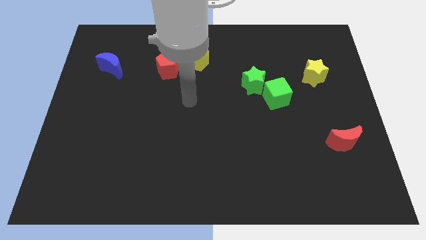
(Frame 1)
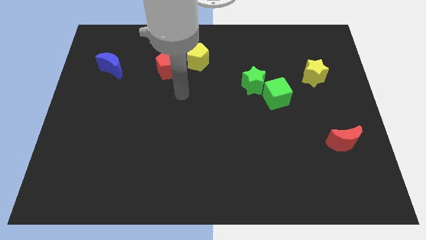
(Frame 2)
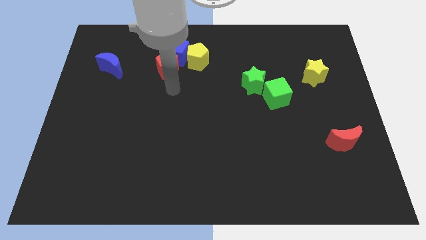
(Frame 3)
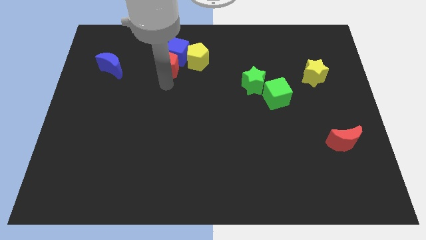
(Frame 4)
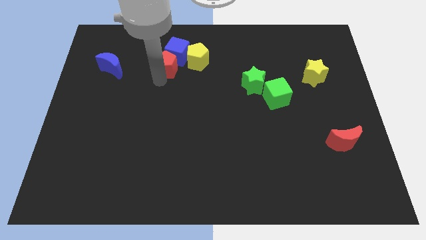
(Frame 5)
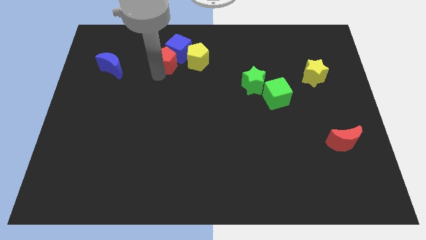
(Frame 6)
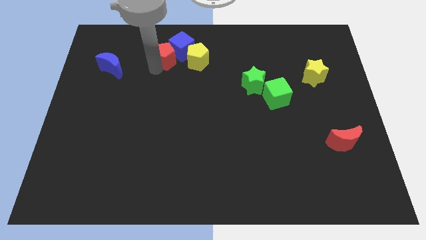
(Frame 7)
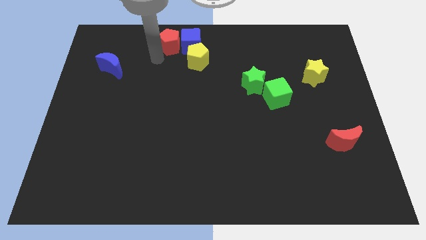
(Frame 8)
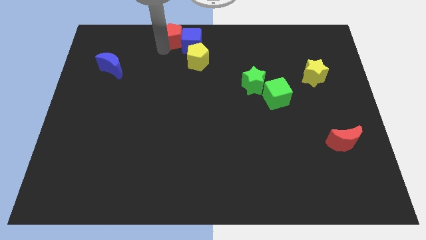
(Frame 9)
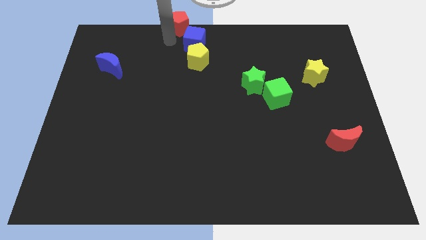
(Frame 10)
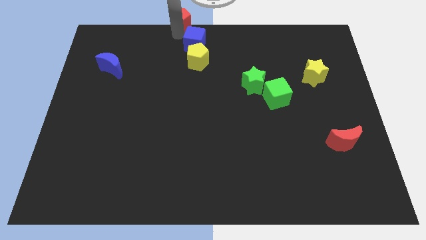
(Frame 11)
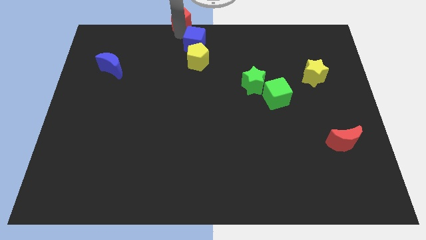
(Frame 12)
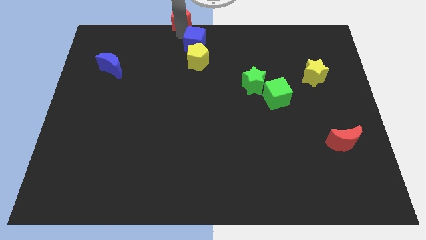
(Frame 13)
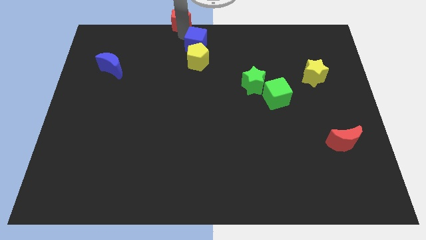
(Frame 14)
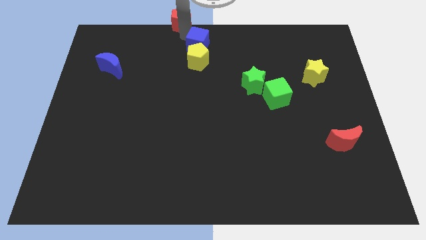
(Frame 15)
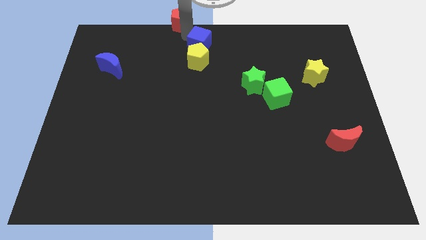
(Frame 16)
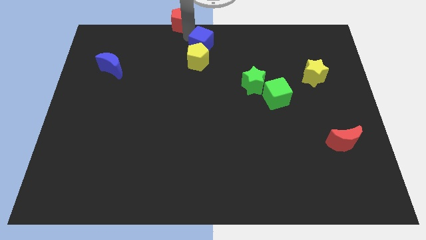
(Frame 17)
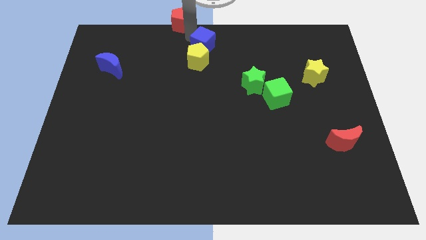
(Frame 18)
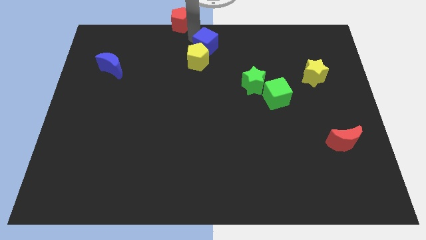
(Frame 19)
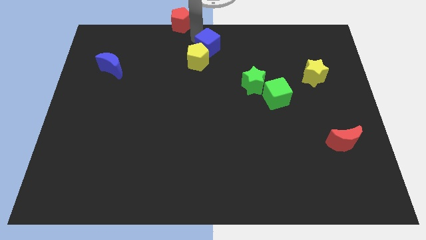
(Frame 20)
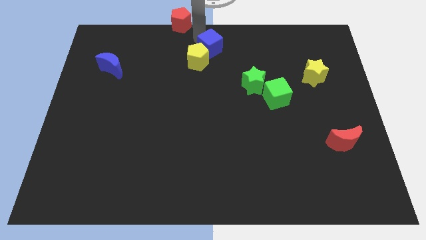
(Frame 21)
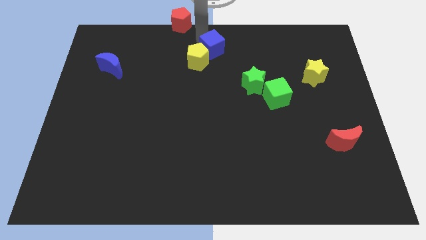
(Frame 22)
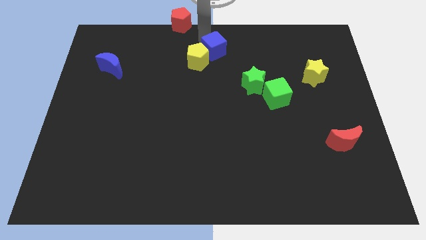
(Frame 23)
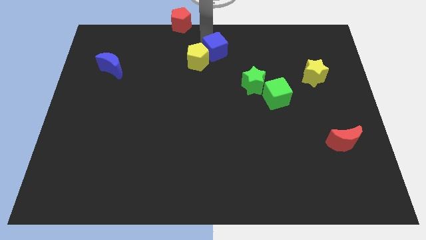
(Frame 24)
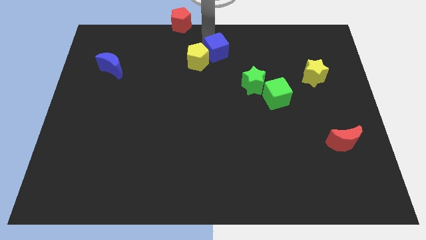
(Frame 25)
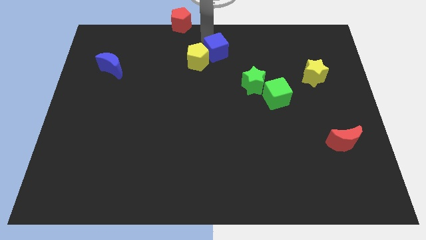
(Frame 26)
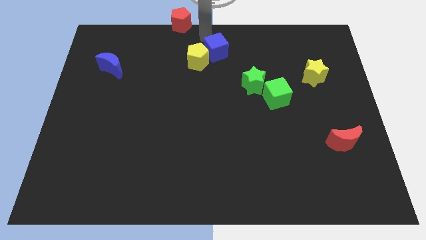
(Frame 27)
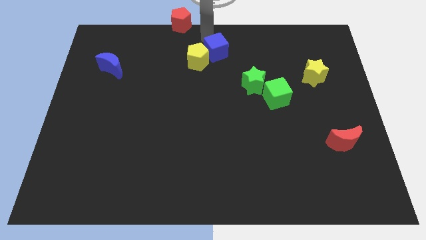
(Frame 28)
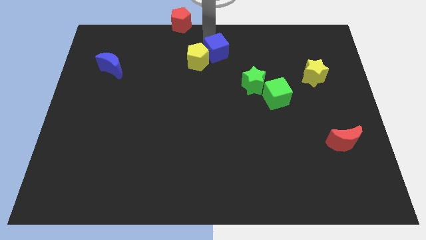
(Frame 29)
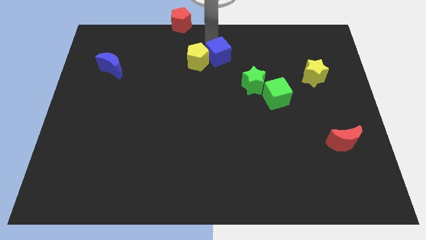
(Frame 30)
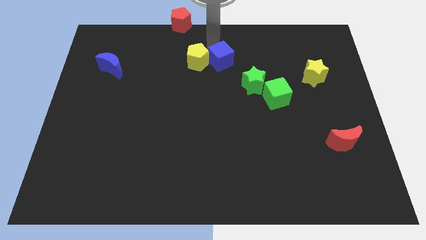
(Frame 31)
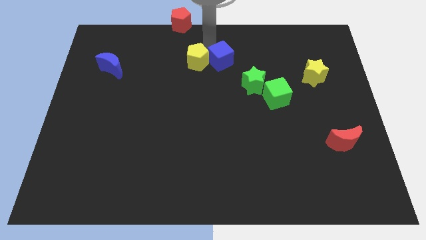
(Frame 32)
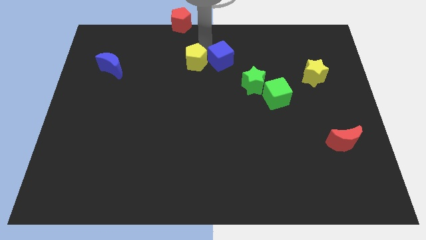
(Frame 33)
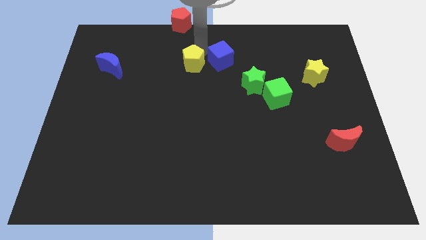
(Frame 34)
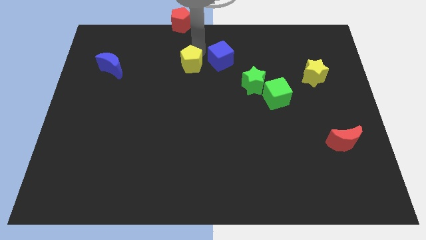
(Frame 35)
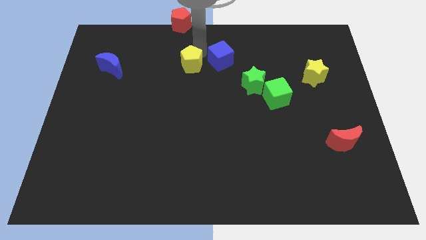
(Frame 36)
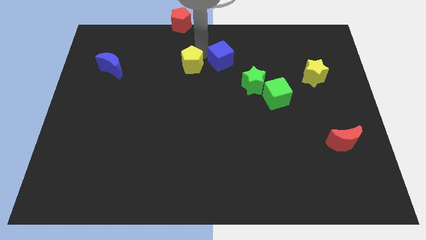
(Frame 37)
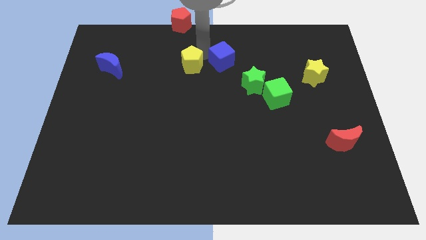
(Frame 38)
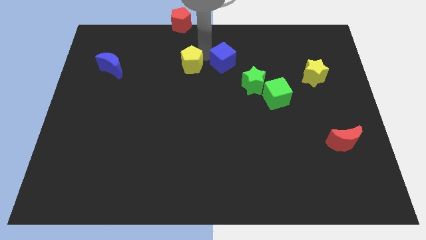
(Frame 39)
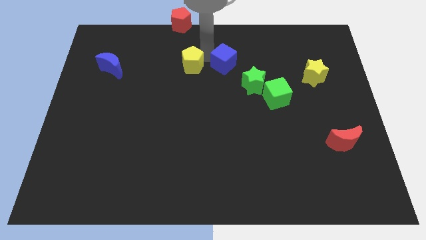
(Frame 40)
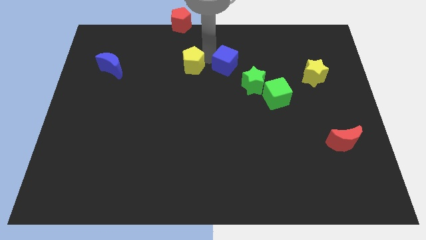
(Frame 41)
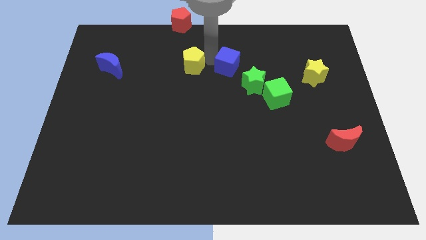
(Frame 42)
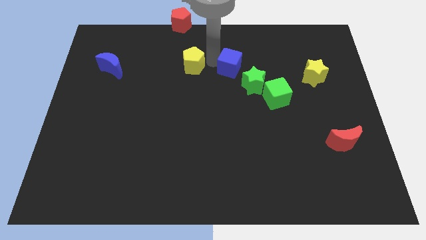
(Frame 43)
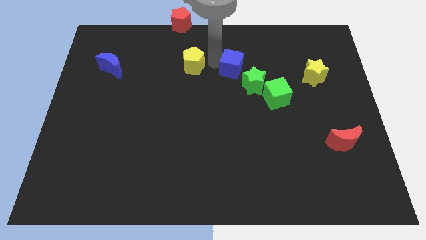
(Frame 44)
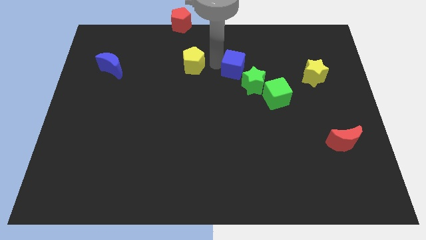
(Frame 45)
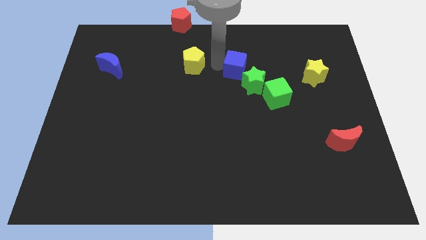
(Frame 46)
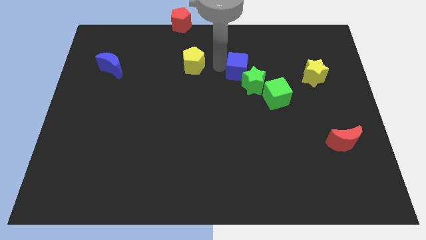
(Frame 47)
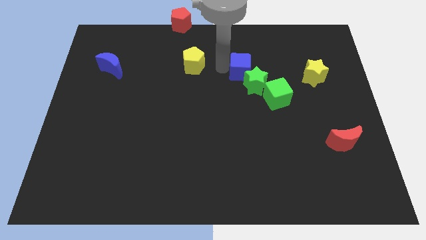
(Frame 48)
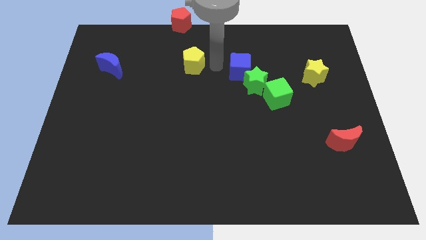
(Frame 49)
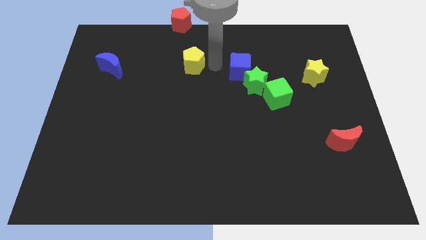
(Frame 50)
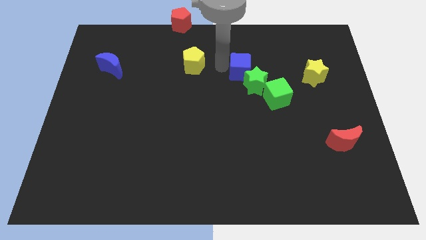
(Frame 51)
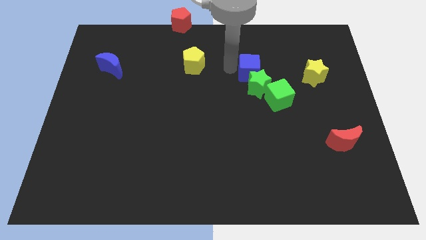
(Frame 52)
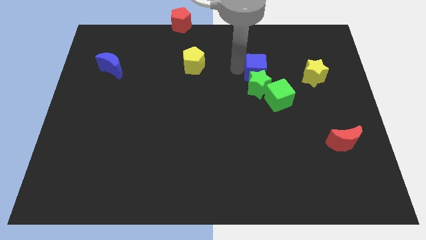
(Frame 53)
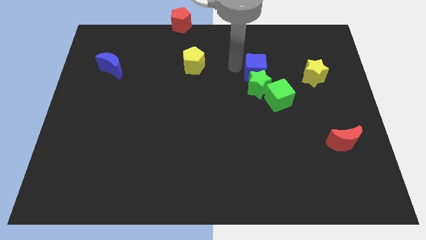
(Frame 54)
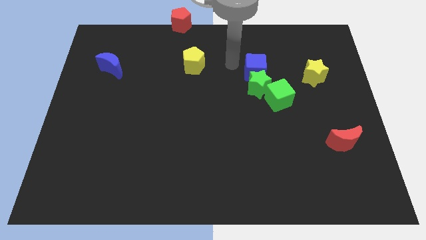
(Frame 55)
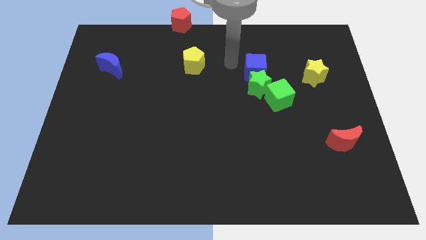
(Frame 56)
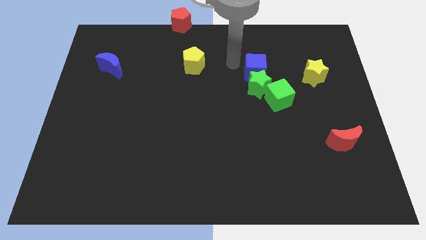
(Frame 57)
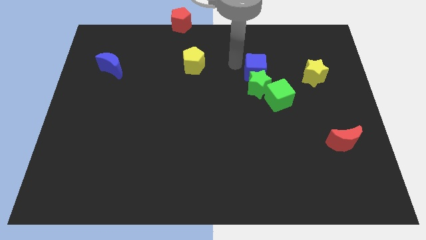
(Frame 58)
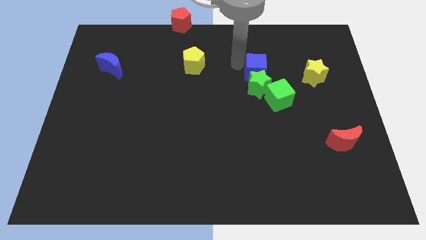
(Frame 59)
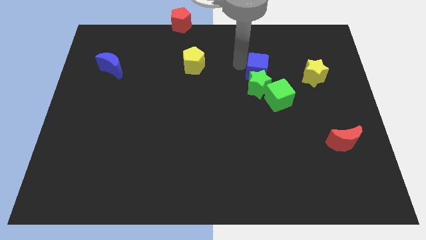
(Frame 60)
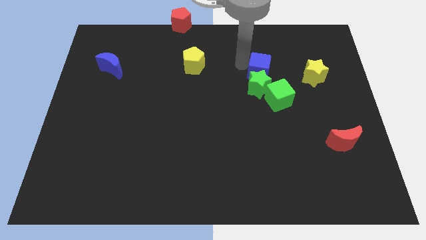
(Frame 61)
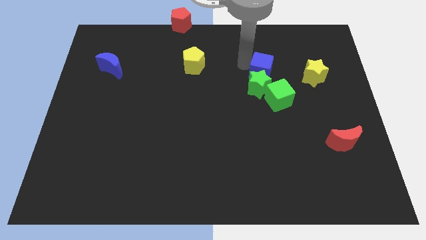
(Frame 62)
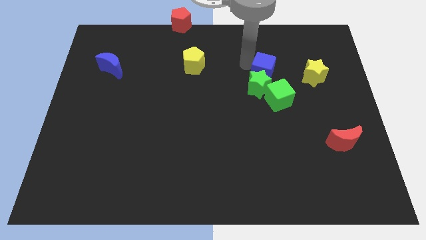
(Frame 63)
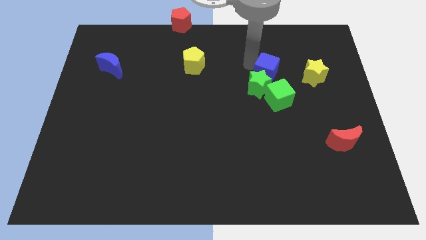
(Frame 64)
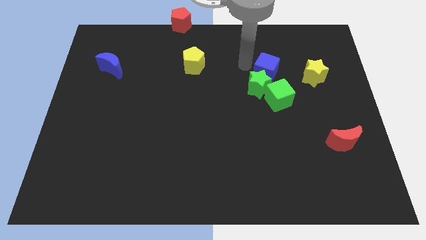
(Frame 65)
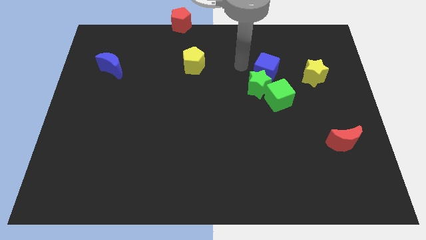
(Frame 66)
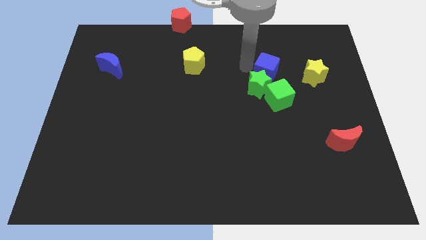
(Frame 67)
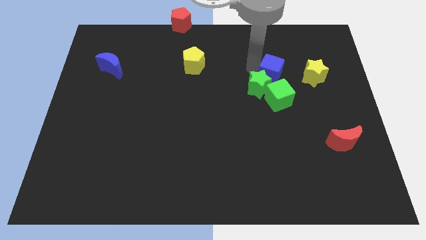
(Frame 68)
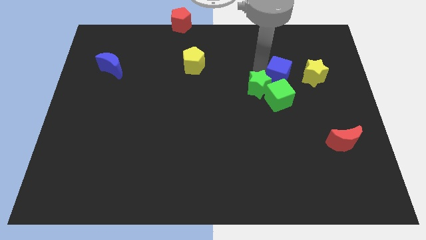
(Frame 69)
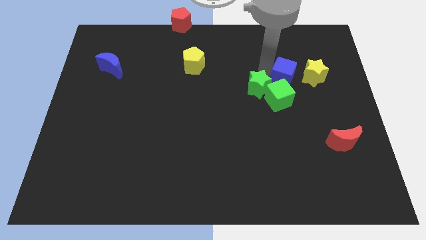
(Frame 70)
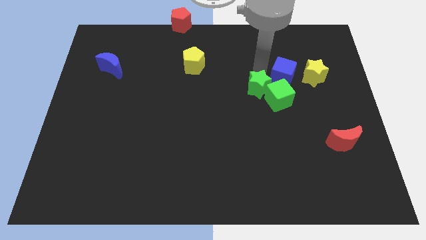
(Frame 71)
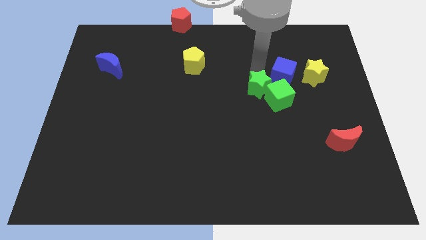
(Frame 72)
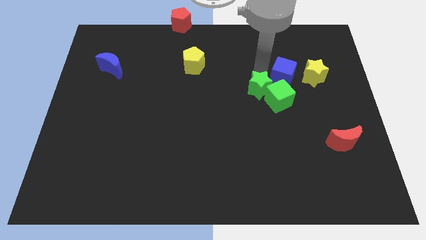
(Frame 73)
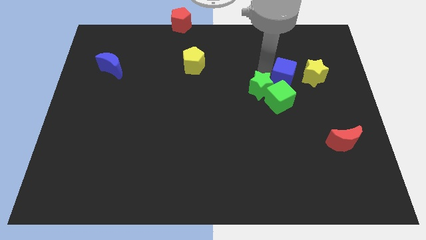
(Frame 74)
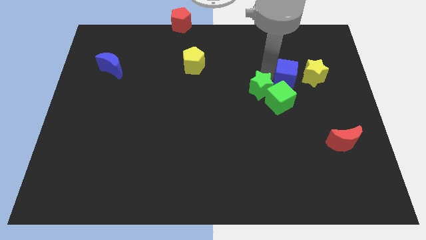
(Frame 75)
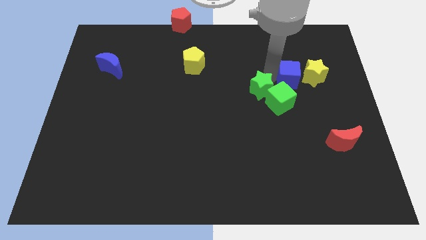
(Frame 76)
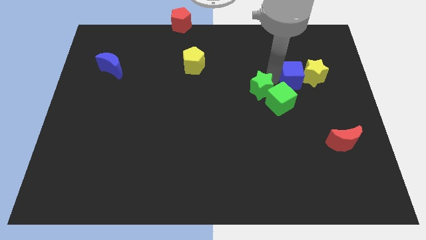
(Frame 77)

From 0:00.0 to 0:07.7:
move the blue cube to the yellow star
